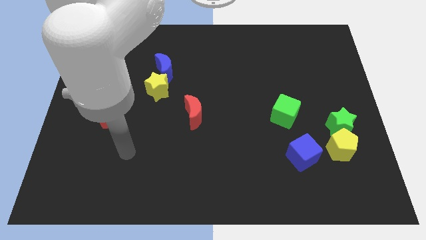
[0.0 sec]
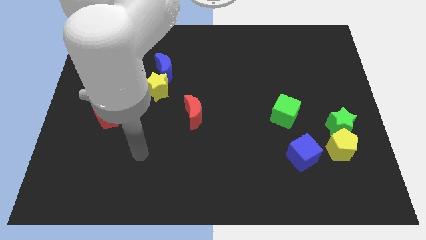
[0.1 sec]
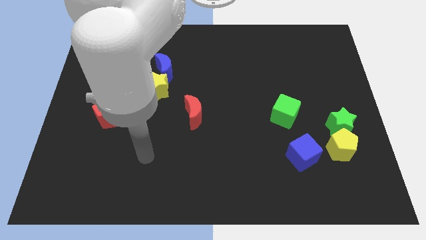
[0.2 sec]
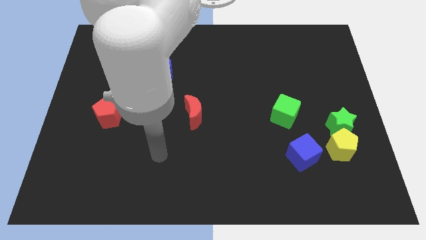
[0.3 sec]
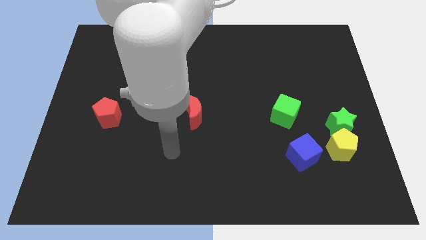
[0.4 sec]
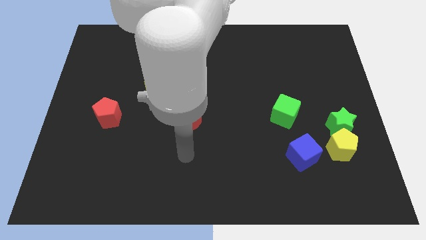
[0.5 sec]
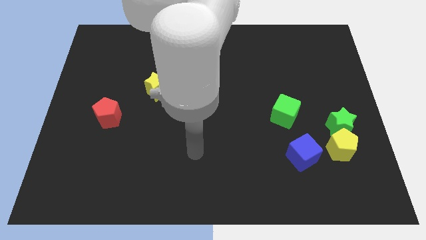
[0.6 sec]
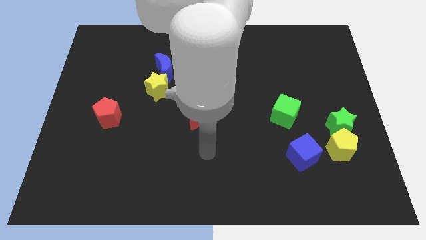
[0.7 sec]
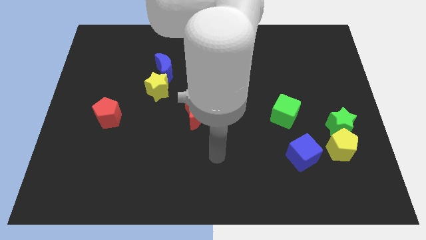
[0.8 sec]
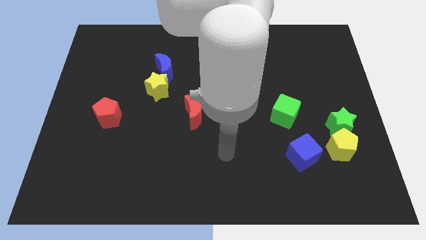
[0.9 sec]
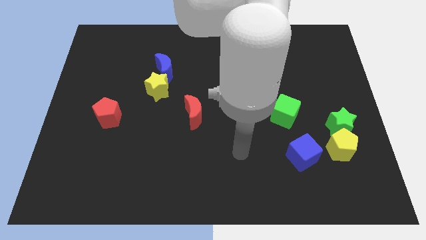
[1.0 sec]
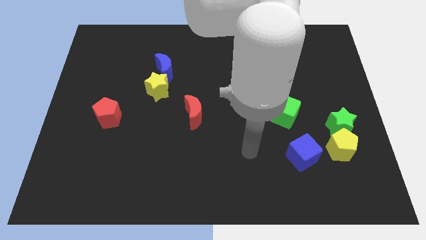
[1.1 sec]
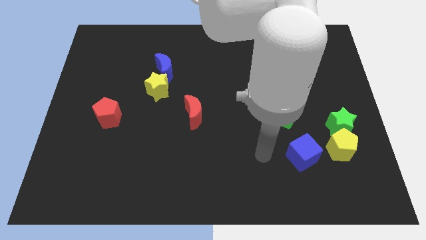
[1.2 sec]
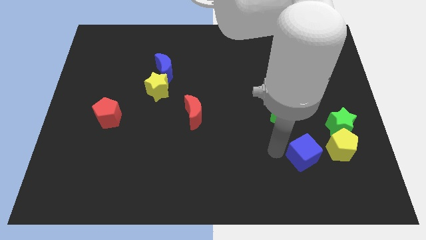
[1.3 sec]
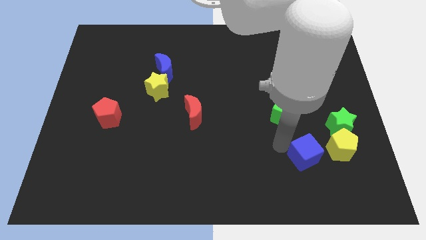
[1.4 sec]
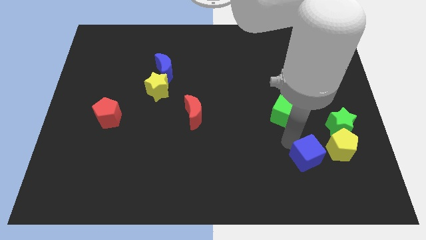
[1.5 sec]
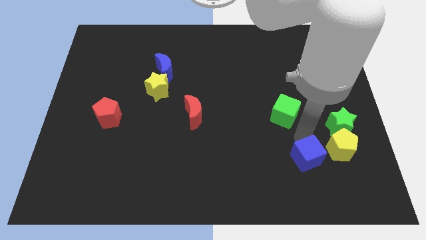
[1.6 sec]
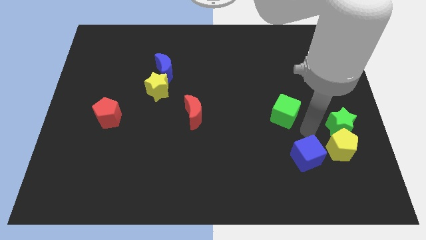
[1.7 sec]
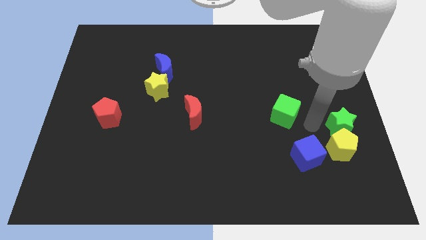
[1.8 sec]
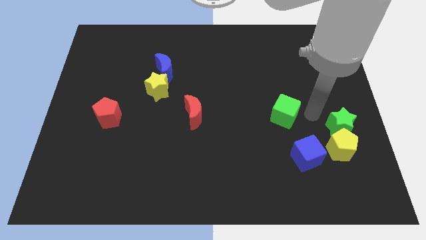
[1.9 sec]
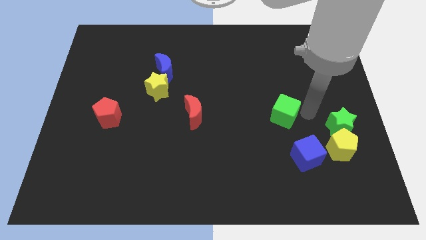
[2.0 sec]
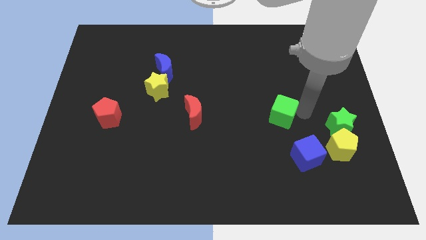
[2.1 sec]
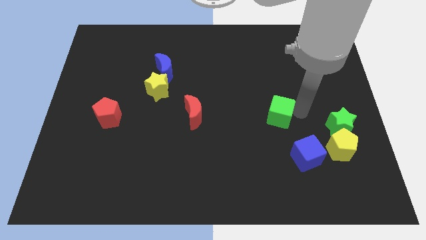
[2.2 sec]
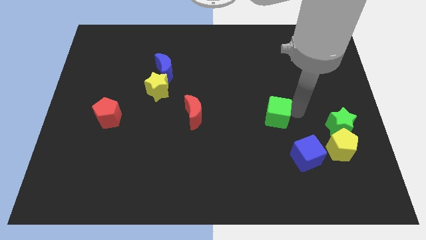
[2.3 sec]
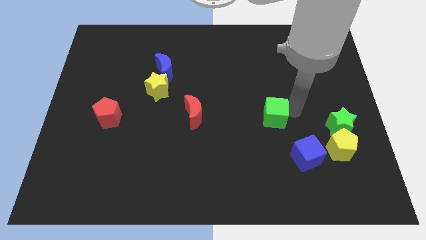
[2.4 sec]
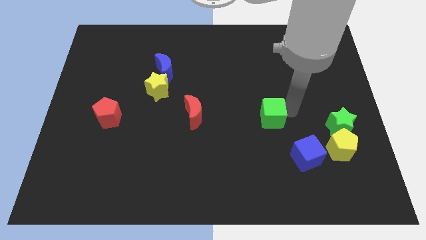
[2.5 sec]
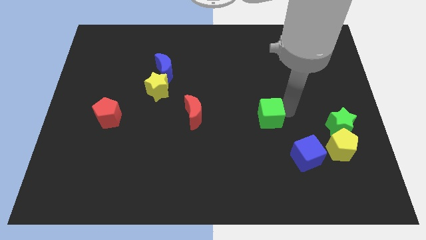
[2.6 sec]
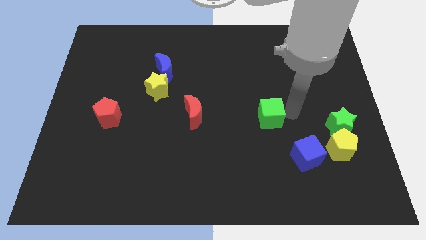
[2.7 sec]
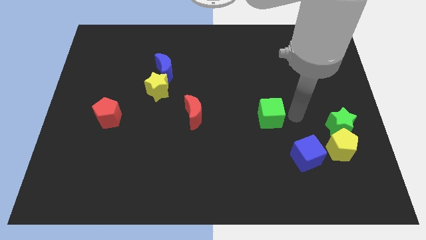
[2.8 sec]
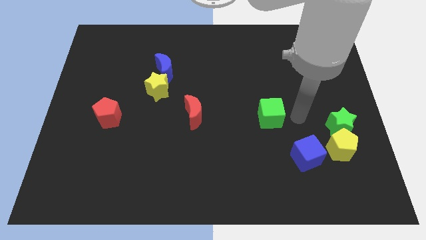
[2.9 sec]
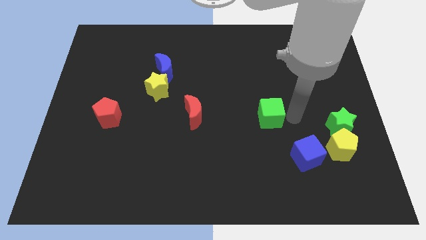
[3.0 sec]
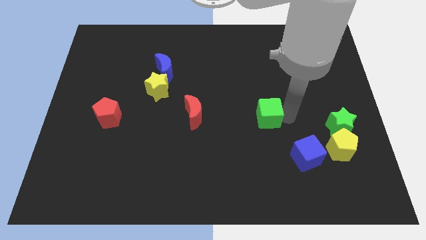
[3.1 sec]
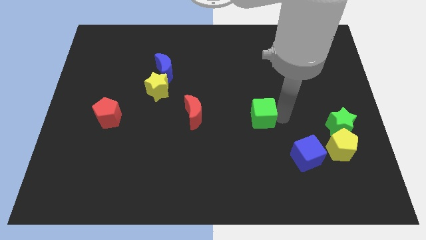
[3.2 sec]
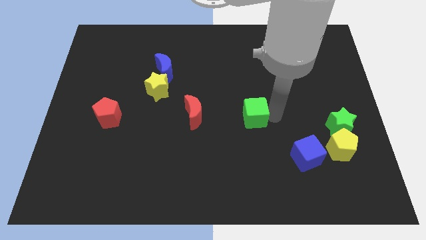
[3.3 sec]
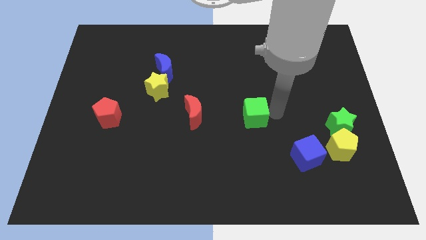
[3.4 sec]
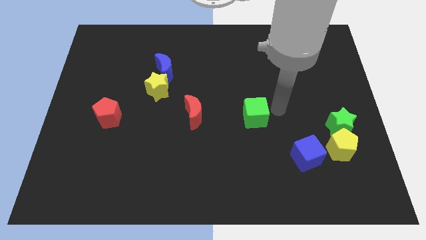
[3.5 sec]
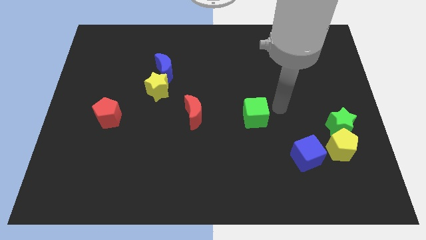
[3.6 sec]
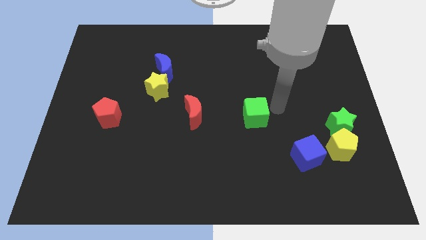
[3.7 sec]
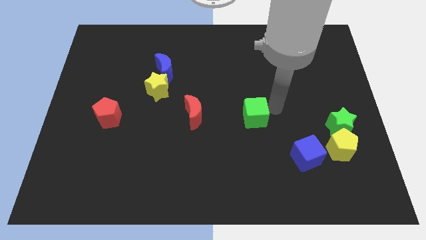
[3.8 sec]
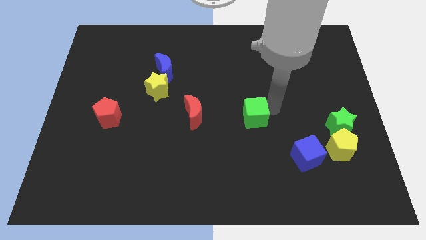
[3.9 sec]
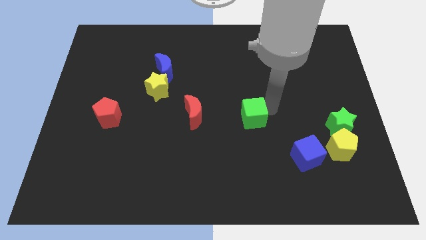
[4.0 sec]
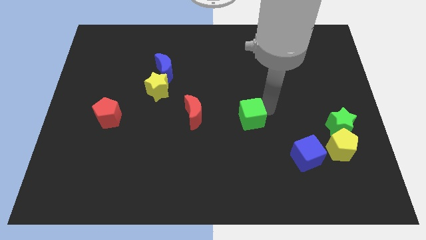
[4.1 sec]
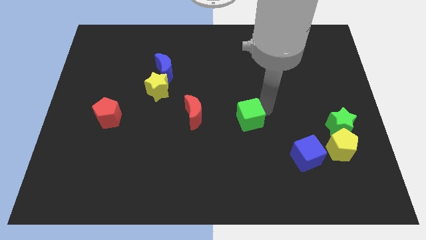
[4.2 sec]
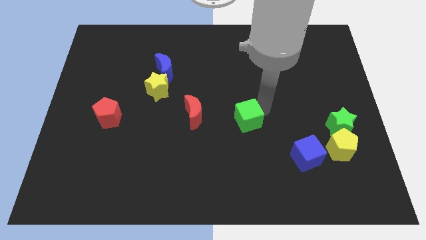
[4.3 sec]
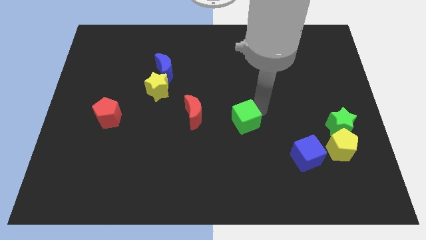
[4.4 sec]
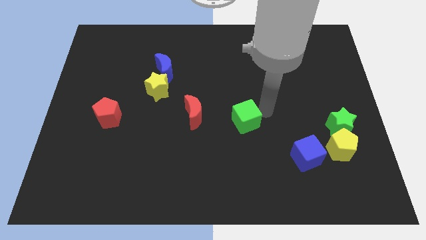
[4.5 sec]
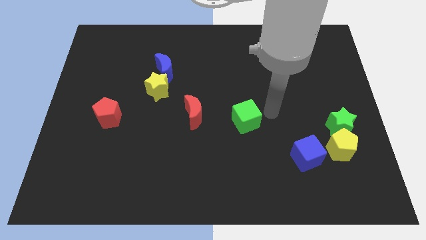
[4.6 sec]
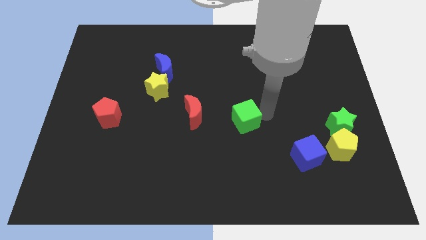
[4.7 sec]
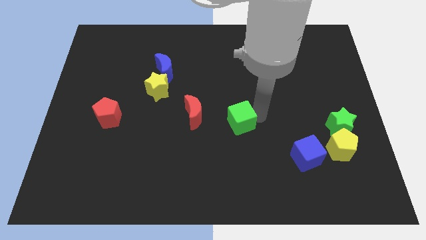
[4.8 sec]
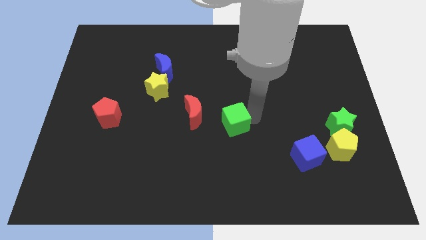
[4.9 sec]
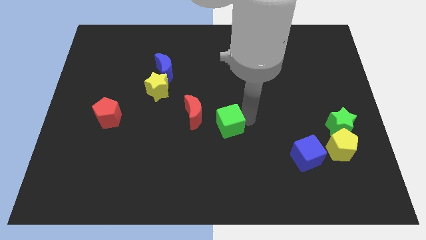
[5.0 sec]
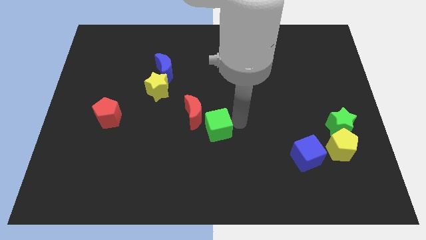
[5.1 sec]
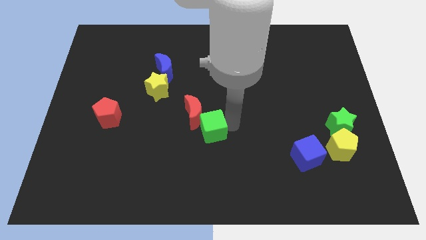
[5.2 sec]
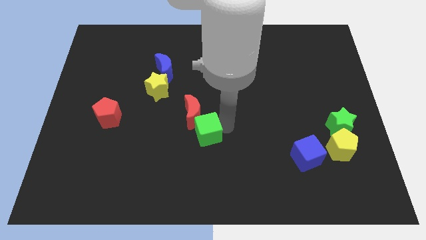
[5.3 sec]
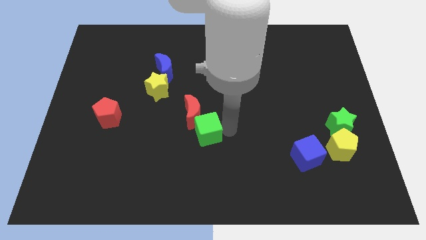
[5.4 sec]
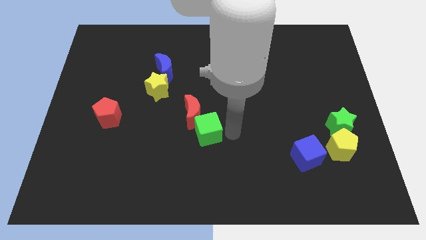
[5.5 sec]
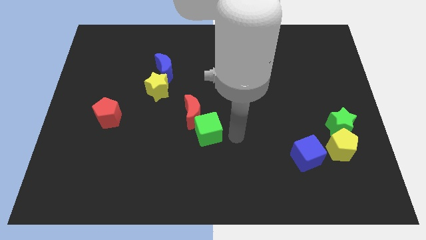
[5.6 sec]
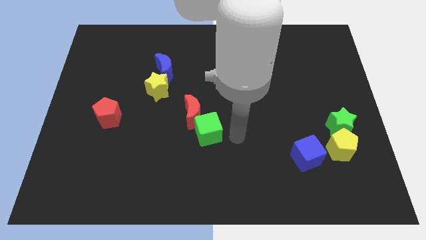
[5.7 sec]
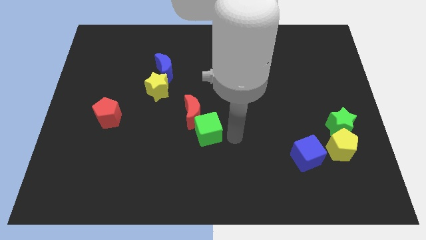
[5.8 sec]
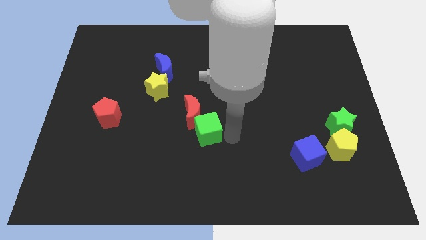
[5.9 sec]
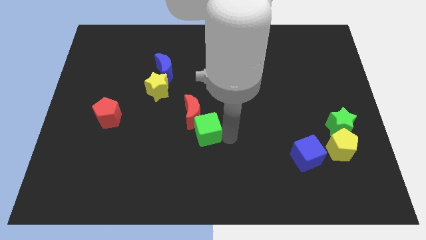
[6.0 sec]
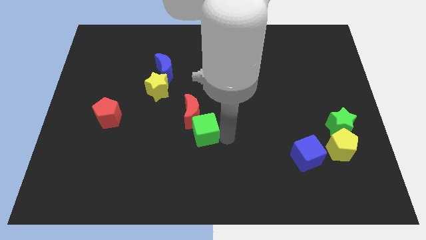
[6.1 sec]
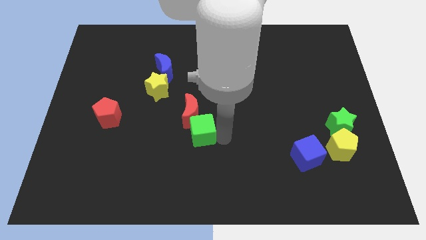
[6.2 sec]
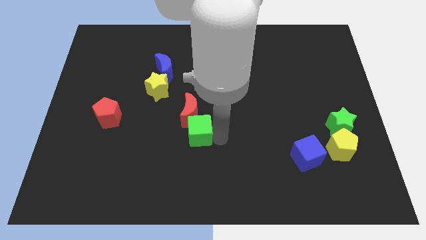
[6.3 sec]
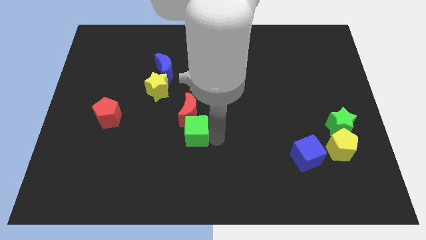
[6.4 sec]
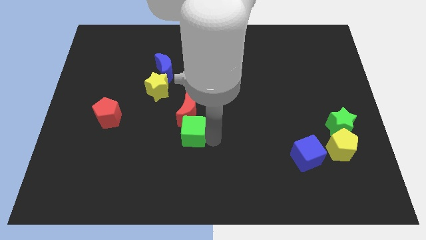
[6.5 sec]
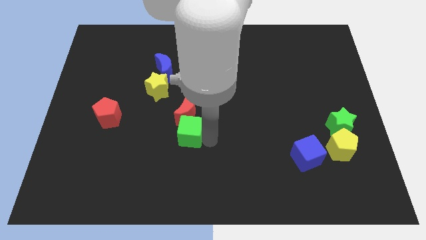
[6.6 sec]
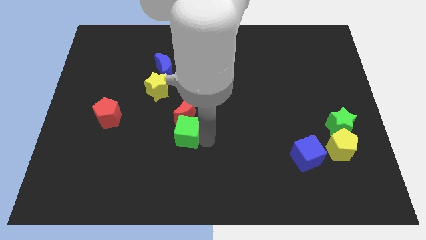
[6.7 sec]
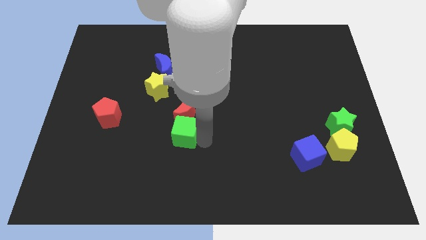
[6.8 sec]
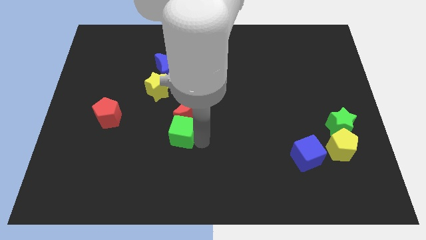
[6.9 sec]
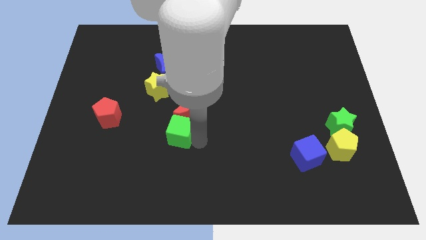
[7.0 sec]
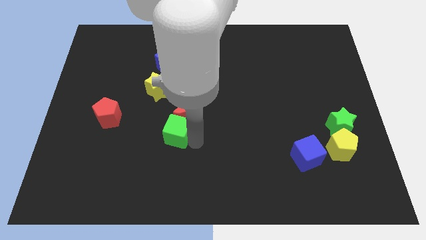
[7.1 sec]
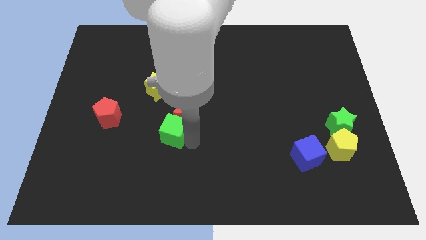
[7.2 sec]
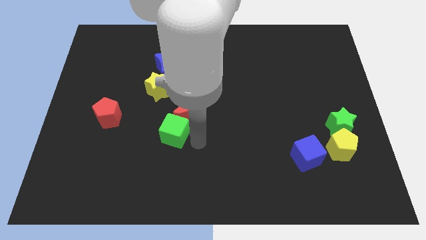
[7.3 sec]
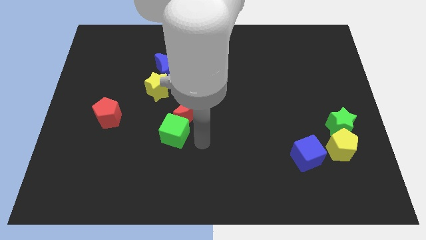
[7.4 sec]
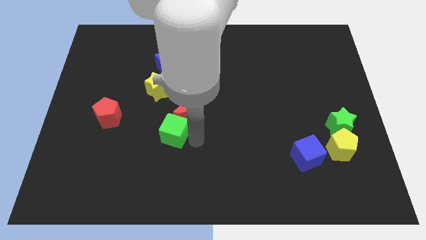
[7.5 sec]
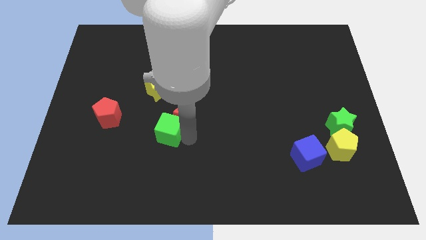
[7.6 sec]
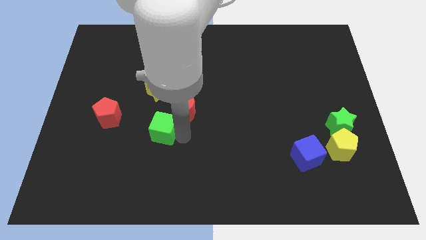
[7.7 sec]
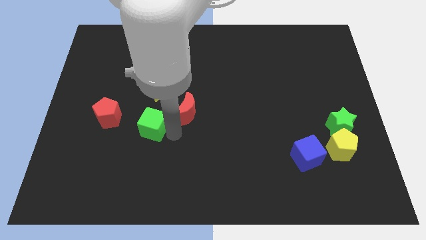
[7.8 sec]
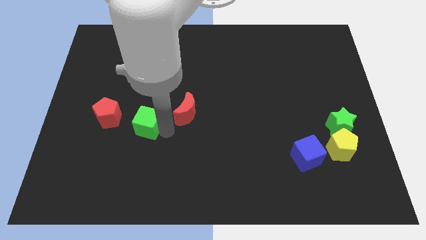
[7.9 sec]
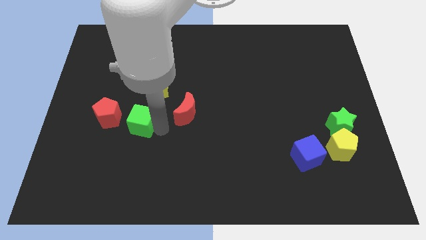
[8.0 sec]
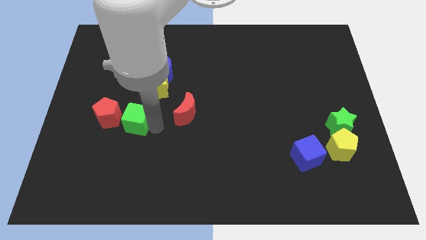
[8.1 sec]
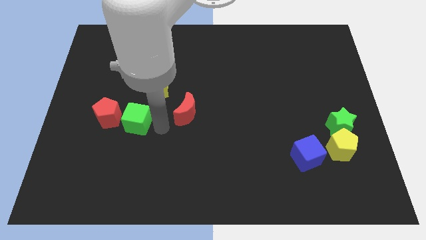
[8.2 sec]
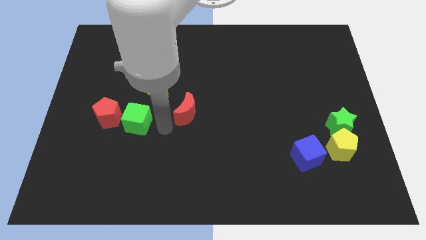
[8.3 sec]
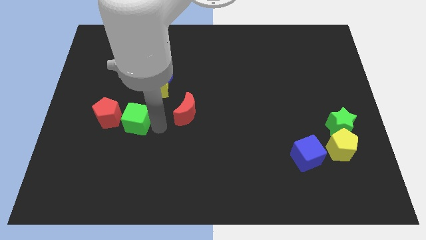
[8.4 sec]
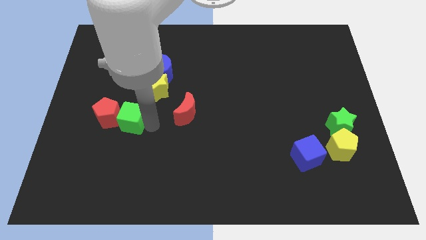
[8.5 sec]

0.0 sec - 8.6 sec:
move the green cube close to the red pentagon
